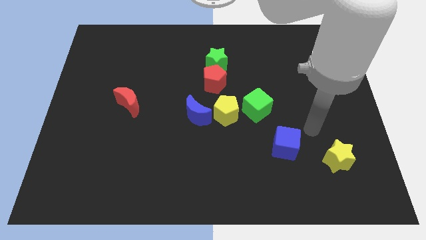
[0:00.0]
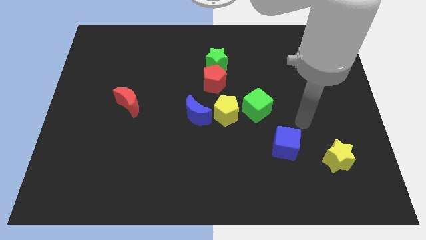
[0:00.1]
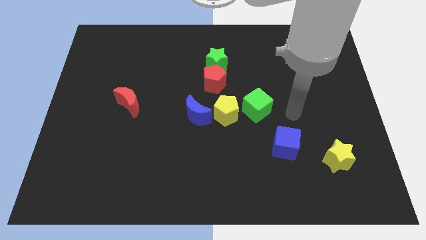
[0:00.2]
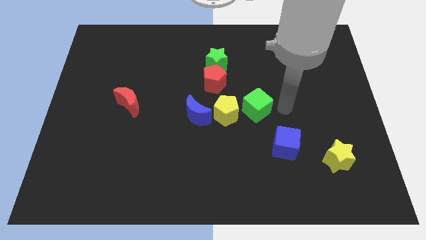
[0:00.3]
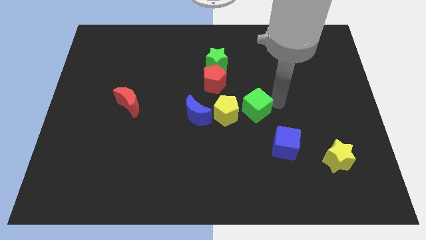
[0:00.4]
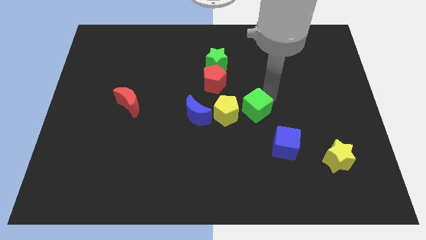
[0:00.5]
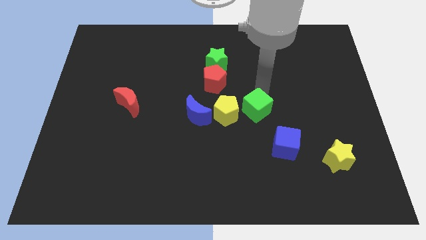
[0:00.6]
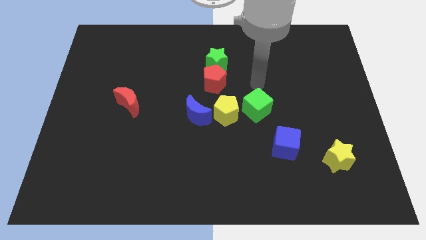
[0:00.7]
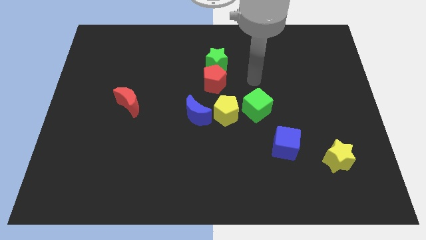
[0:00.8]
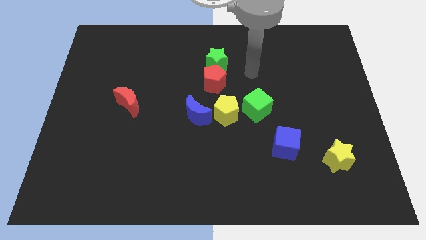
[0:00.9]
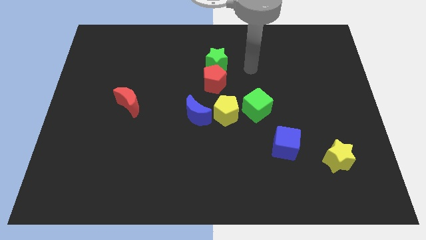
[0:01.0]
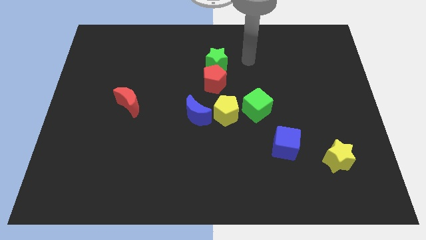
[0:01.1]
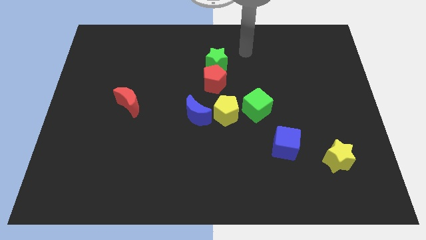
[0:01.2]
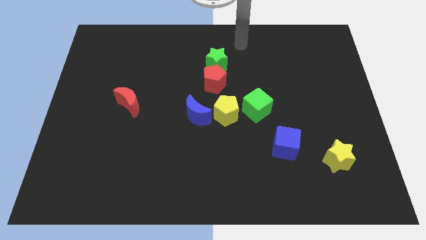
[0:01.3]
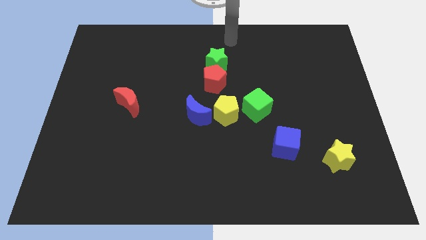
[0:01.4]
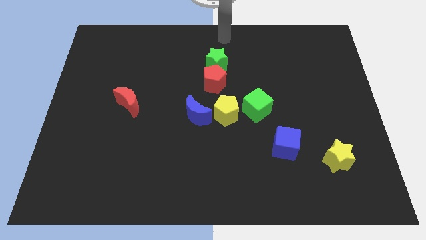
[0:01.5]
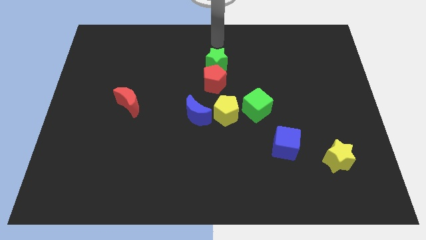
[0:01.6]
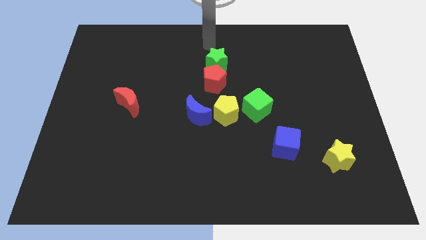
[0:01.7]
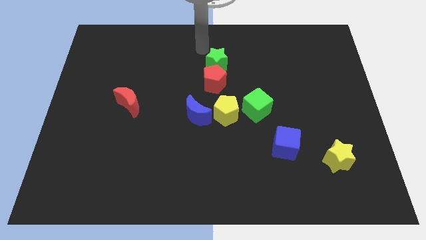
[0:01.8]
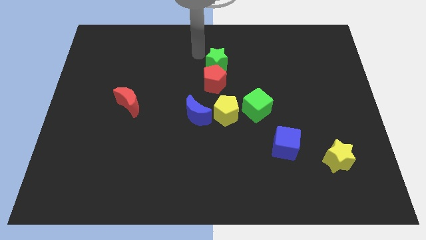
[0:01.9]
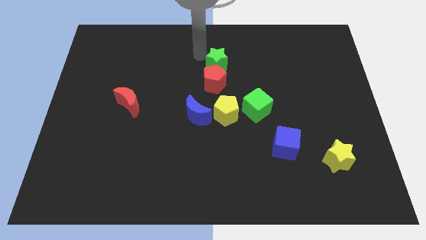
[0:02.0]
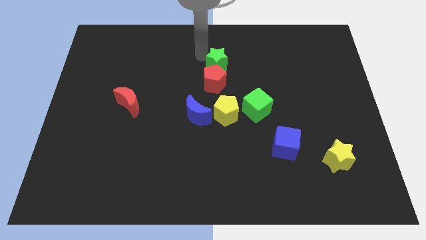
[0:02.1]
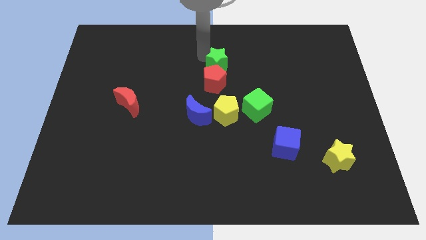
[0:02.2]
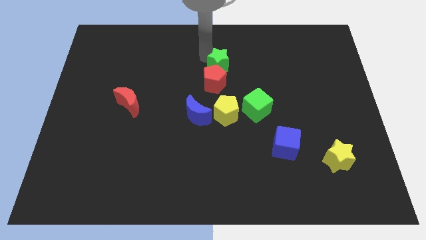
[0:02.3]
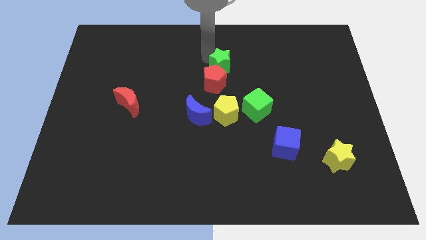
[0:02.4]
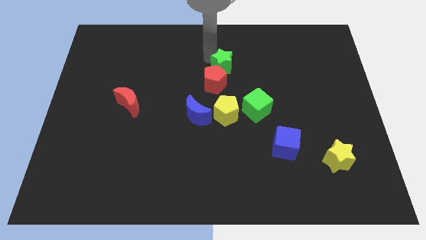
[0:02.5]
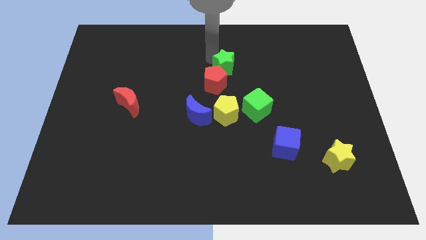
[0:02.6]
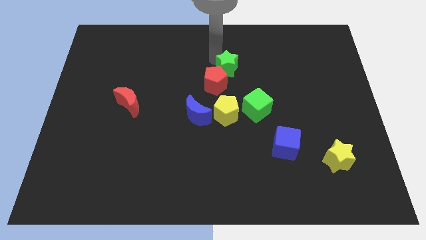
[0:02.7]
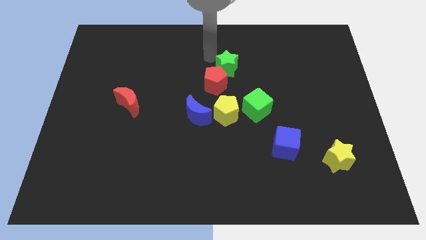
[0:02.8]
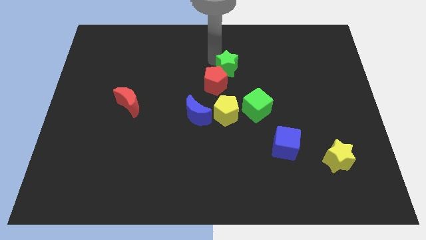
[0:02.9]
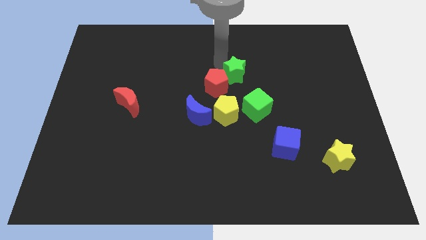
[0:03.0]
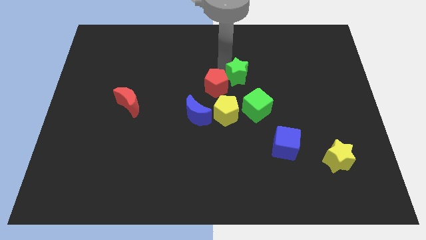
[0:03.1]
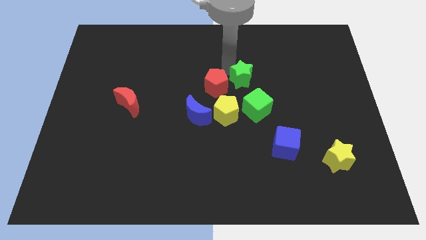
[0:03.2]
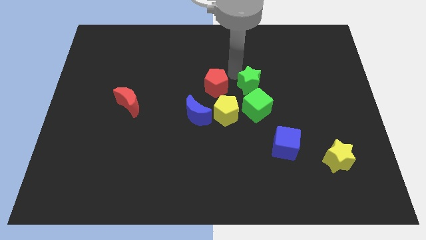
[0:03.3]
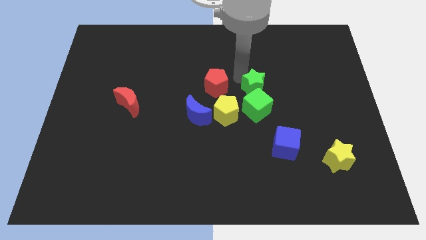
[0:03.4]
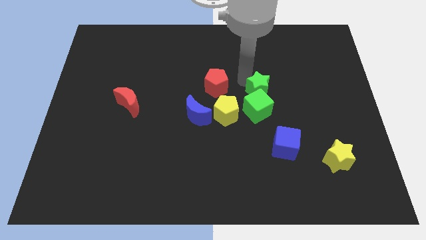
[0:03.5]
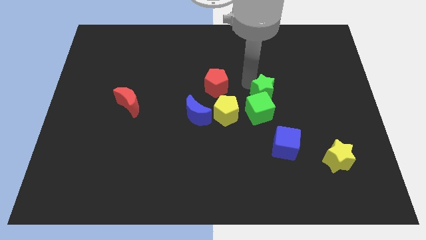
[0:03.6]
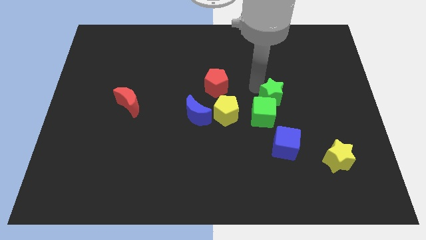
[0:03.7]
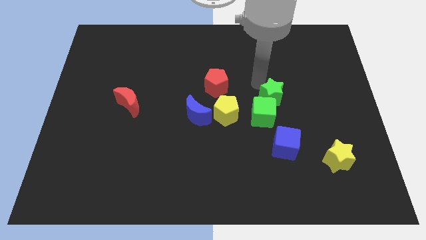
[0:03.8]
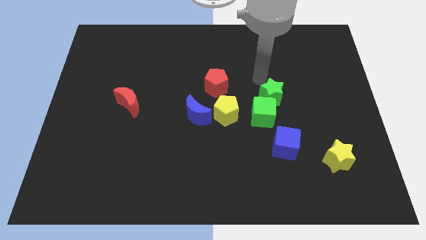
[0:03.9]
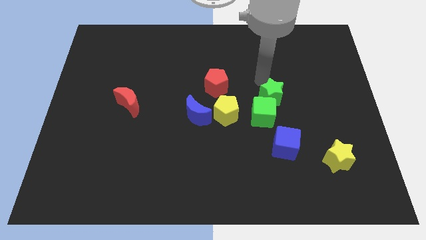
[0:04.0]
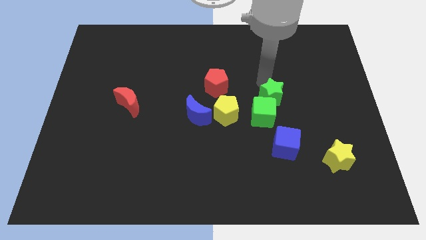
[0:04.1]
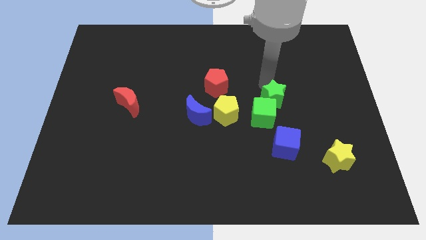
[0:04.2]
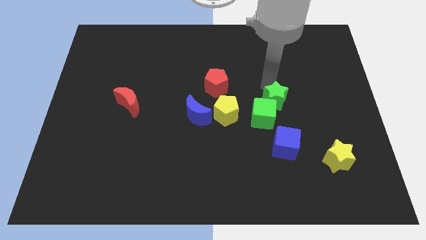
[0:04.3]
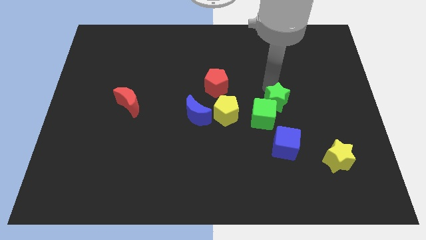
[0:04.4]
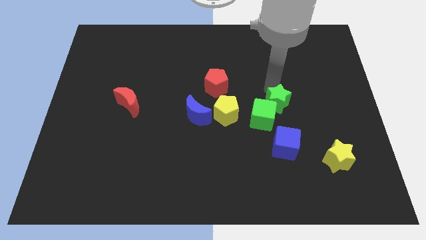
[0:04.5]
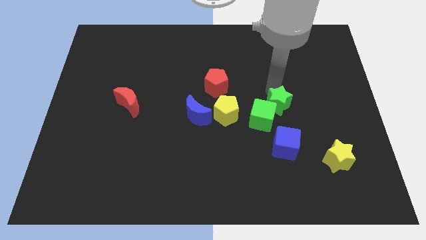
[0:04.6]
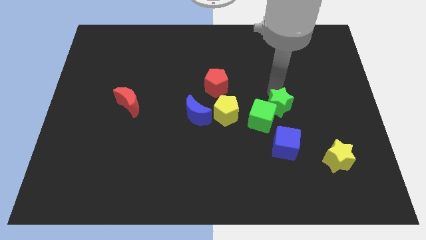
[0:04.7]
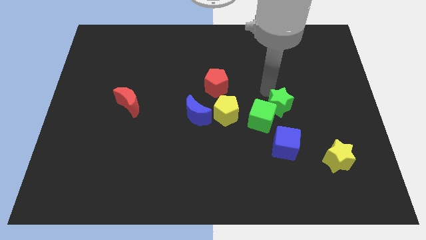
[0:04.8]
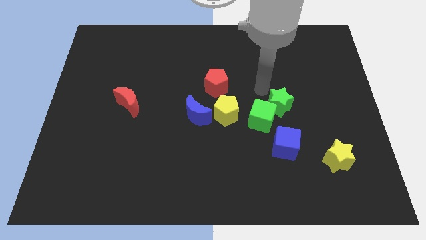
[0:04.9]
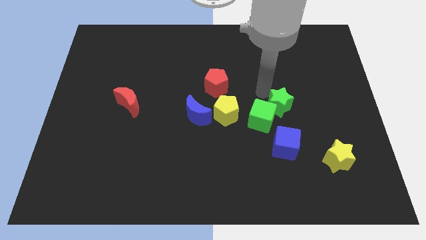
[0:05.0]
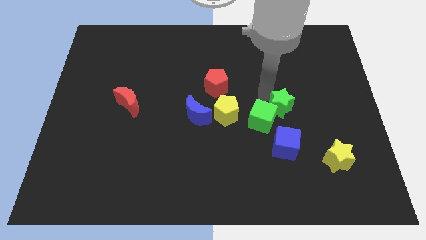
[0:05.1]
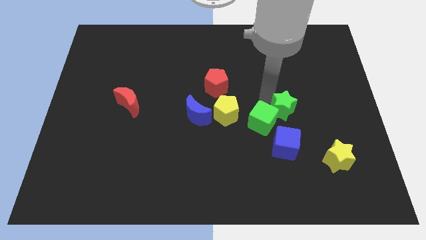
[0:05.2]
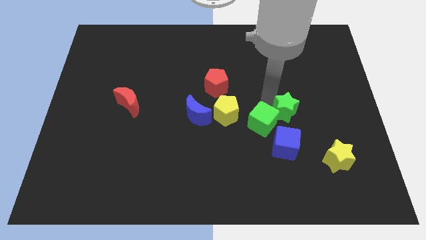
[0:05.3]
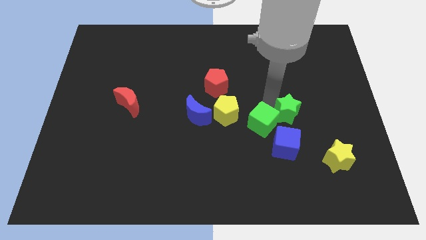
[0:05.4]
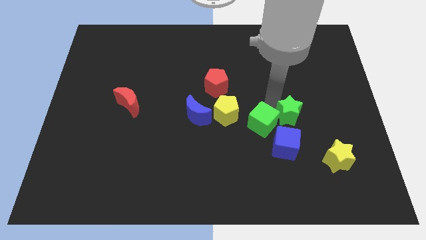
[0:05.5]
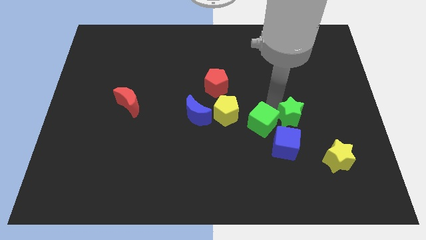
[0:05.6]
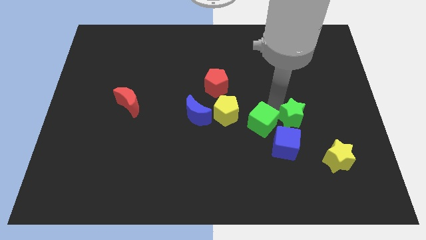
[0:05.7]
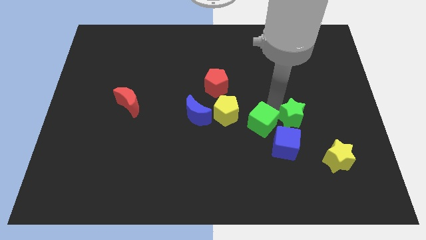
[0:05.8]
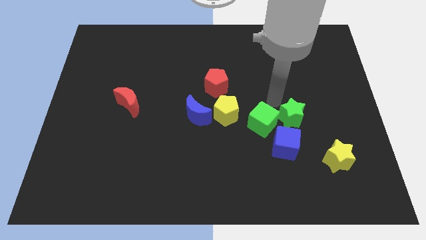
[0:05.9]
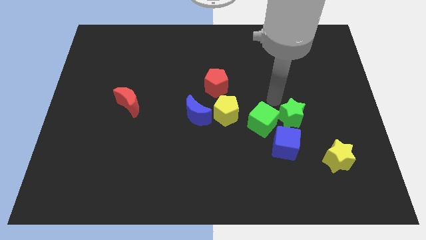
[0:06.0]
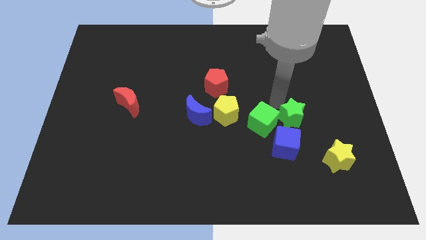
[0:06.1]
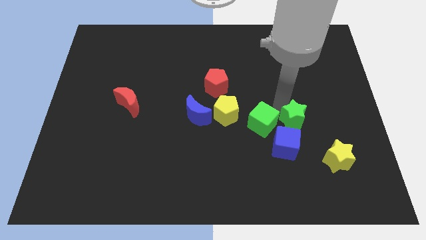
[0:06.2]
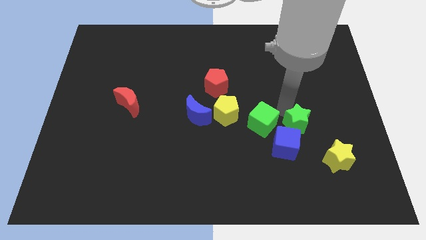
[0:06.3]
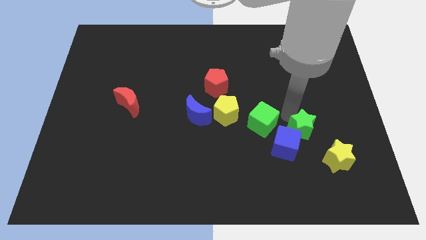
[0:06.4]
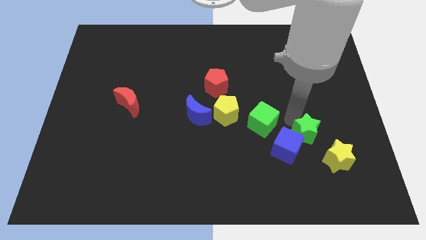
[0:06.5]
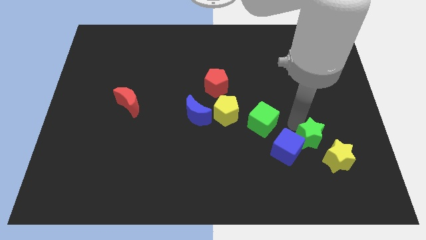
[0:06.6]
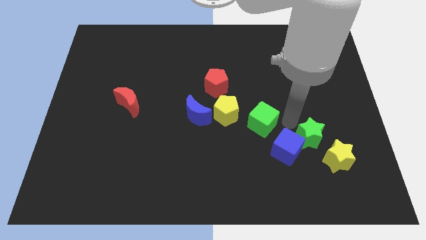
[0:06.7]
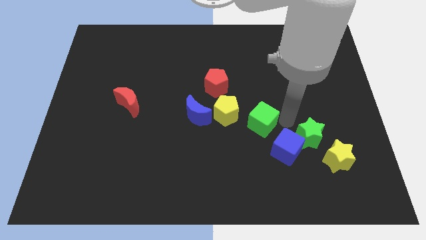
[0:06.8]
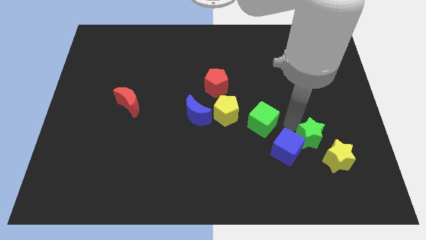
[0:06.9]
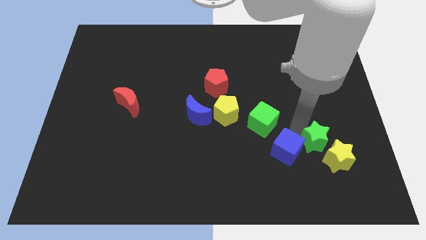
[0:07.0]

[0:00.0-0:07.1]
slide the green star to the yellow star

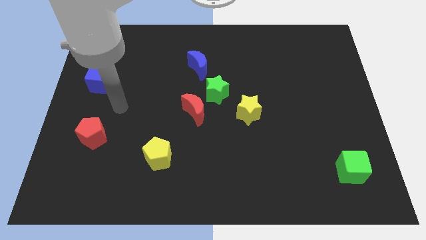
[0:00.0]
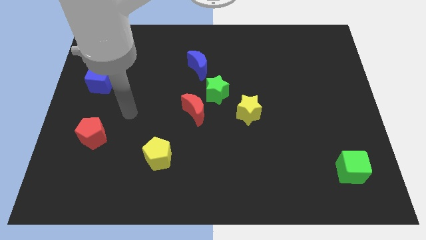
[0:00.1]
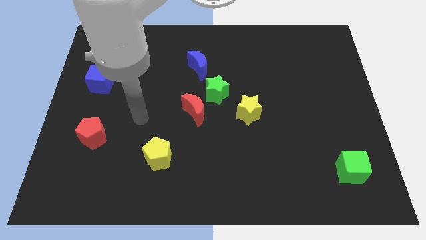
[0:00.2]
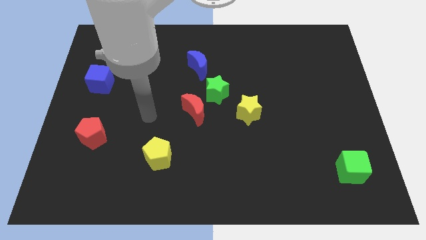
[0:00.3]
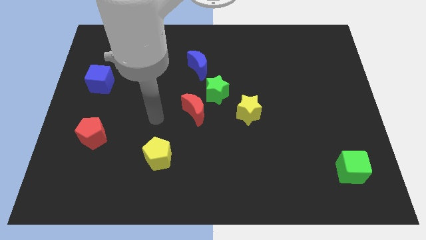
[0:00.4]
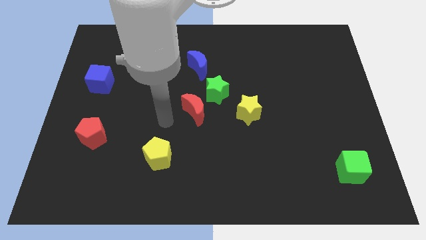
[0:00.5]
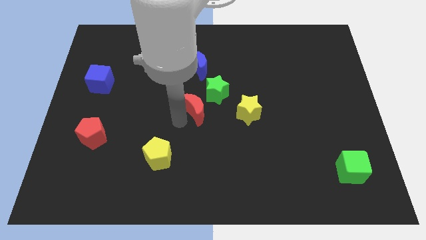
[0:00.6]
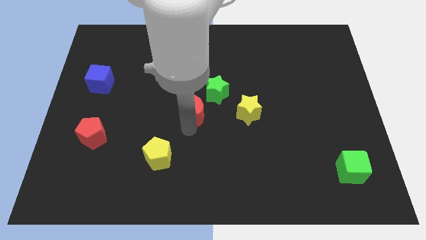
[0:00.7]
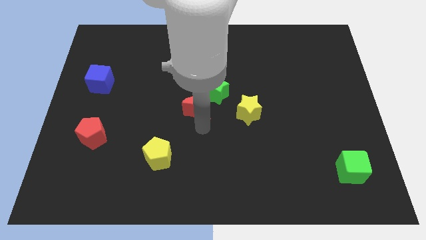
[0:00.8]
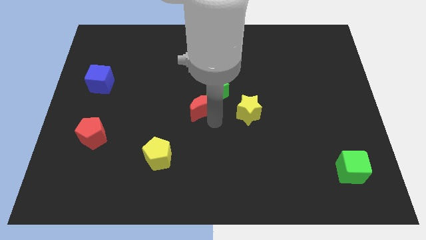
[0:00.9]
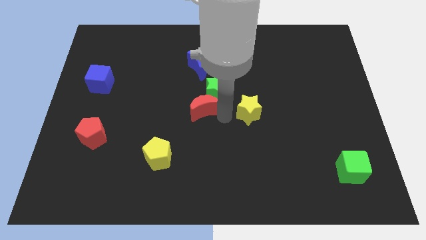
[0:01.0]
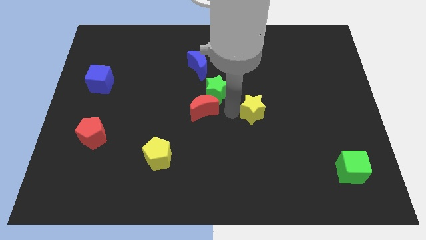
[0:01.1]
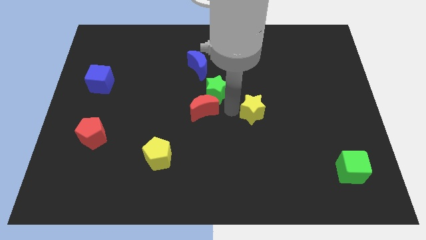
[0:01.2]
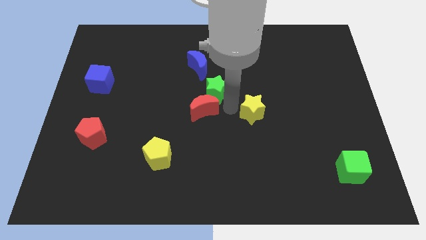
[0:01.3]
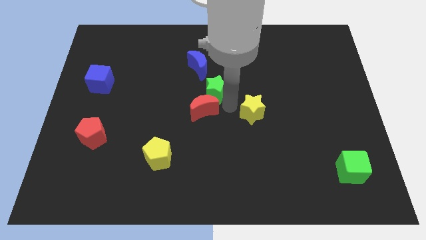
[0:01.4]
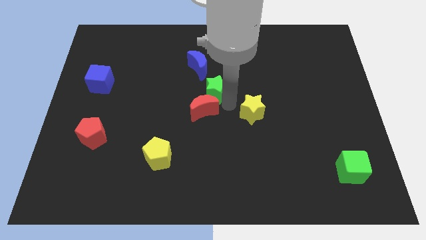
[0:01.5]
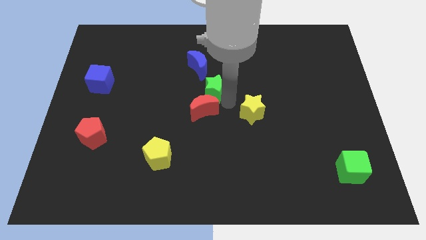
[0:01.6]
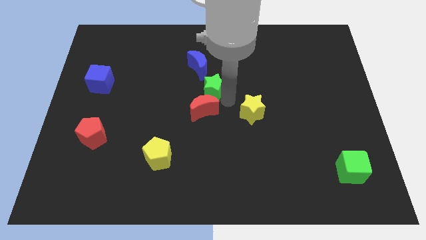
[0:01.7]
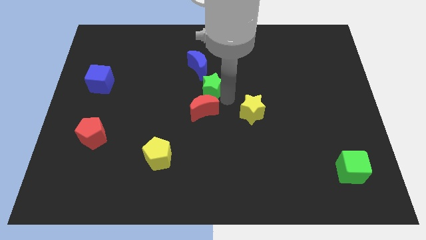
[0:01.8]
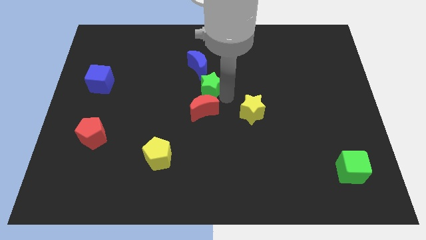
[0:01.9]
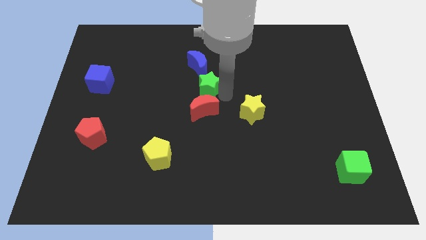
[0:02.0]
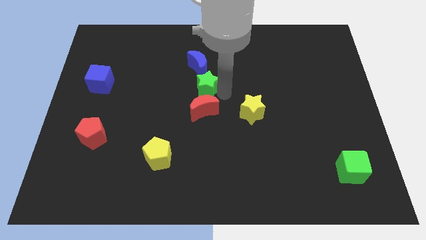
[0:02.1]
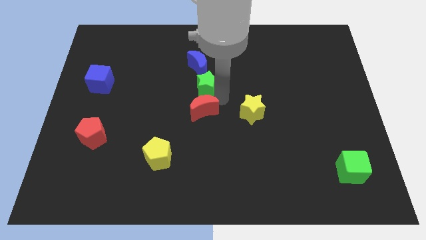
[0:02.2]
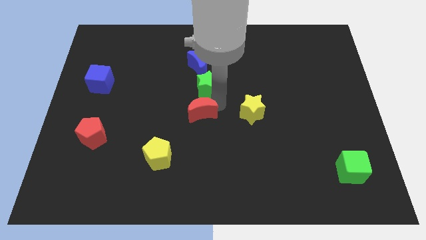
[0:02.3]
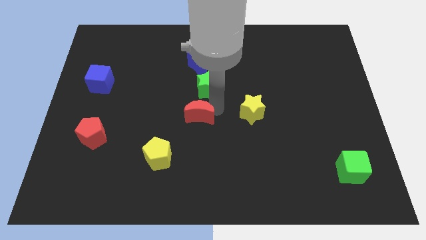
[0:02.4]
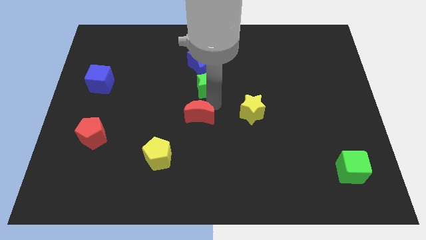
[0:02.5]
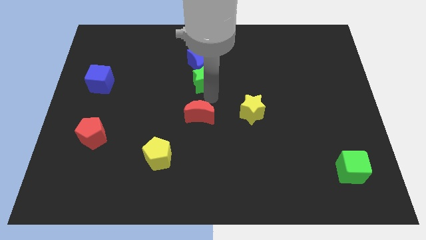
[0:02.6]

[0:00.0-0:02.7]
push the green star close to the blue moon
